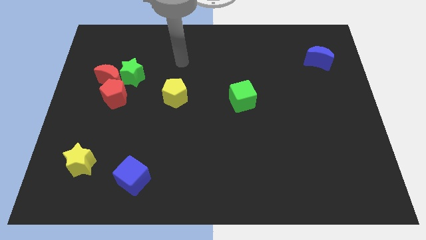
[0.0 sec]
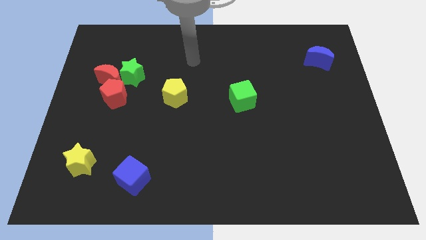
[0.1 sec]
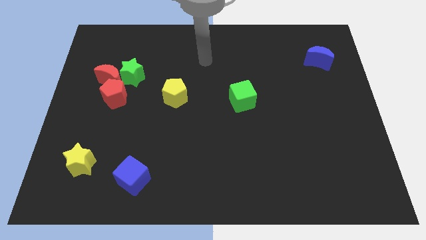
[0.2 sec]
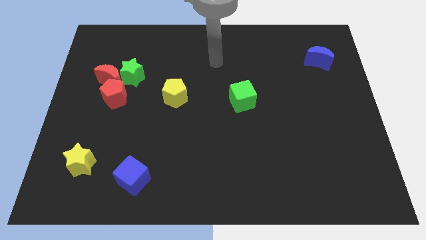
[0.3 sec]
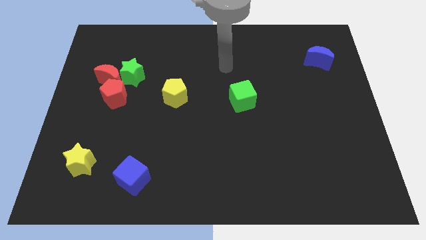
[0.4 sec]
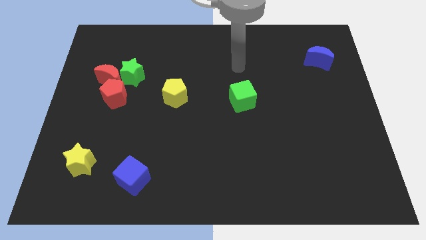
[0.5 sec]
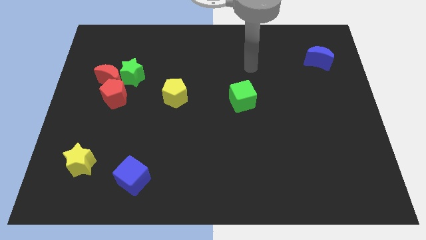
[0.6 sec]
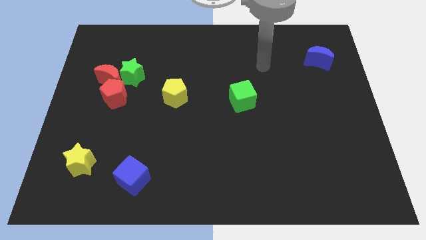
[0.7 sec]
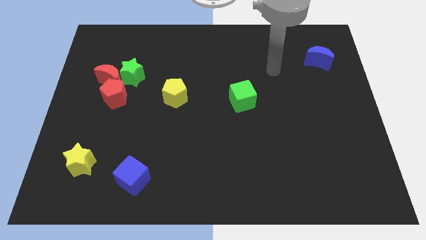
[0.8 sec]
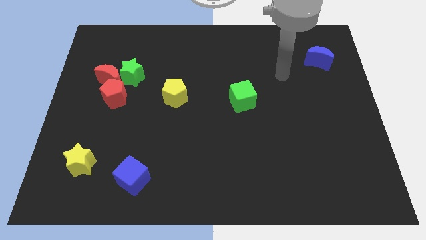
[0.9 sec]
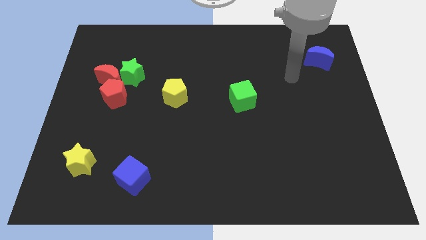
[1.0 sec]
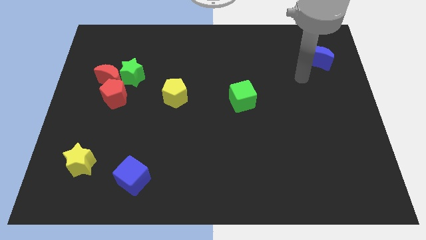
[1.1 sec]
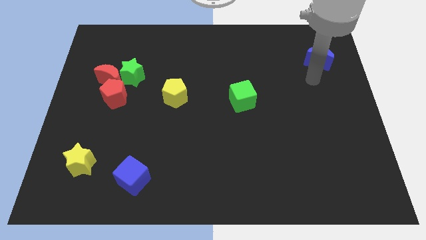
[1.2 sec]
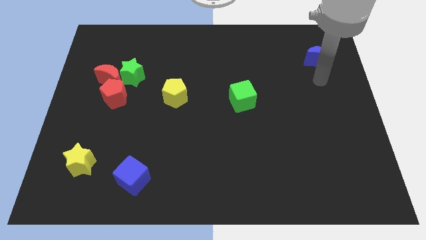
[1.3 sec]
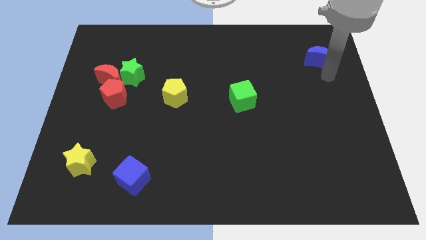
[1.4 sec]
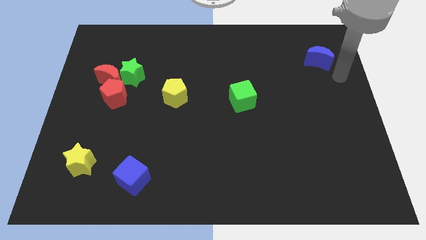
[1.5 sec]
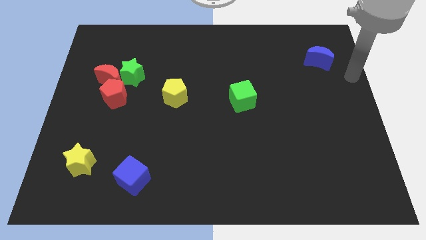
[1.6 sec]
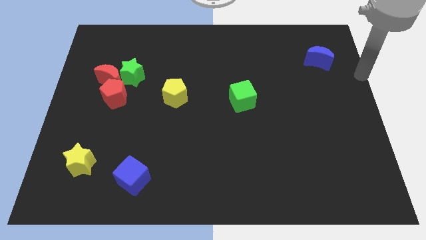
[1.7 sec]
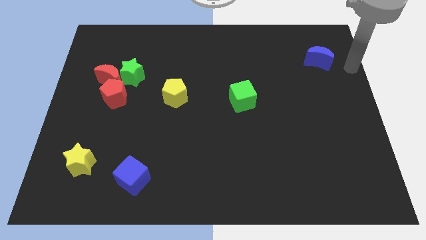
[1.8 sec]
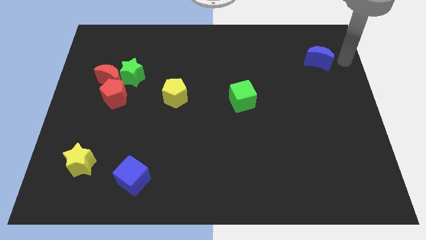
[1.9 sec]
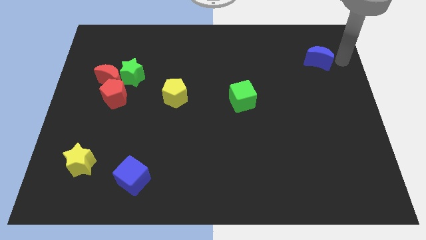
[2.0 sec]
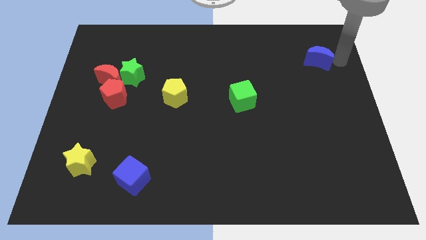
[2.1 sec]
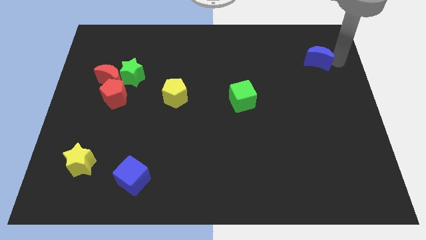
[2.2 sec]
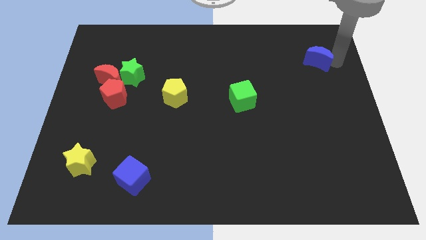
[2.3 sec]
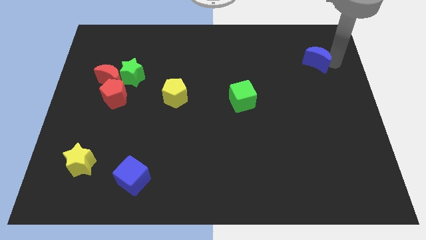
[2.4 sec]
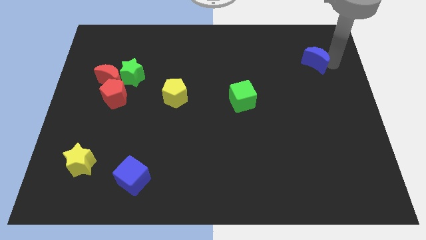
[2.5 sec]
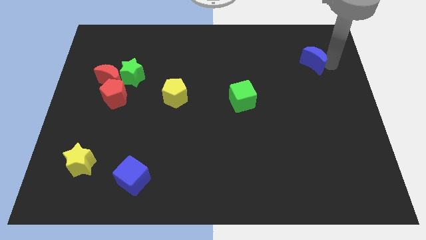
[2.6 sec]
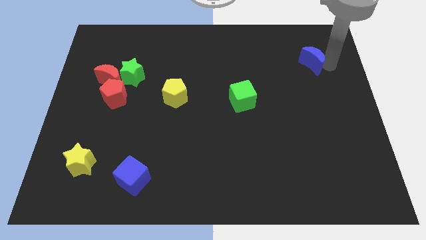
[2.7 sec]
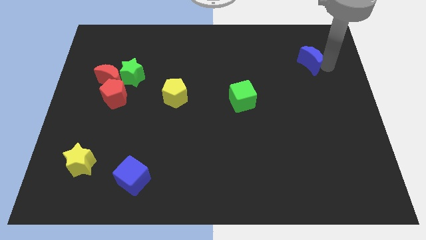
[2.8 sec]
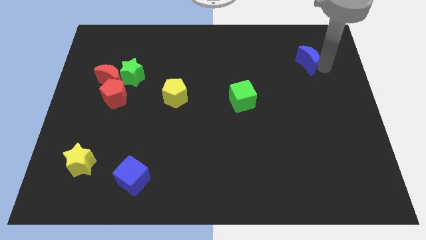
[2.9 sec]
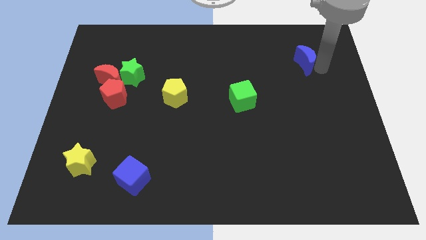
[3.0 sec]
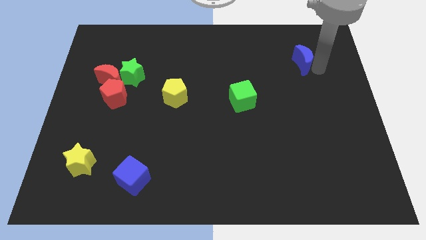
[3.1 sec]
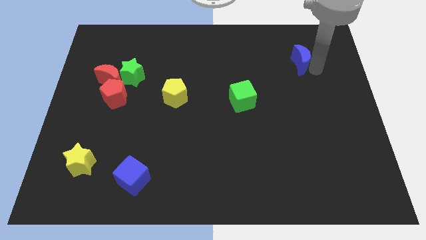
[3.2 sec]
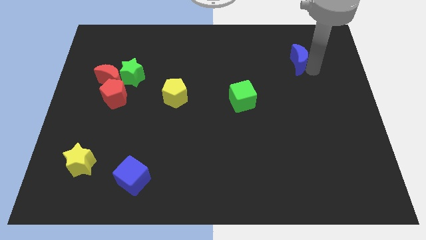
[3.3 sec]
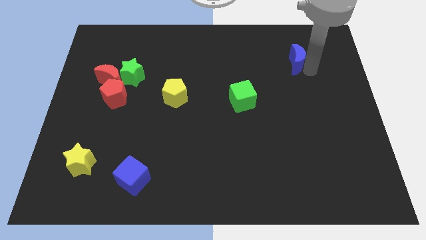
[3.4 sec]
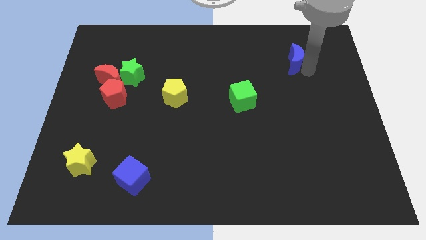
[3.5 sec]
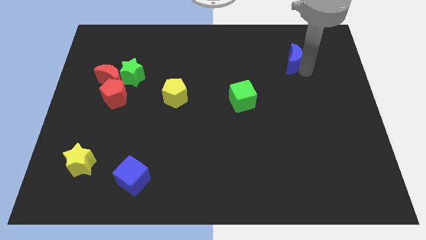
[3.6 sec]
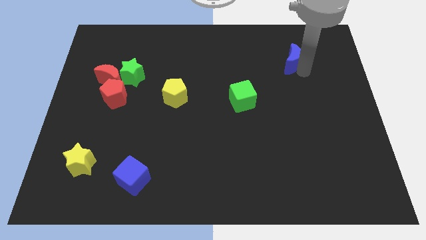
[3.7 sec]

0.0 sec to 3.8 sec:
slightly push the blue moon to the left

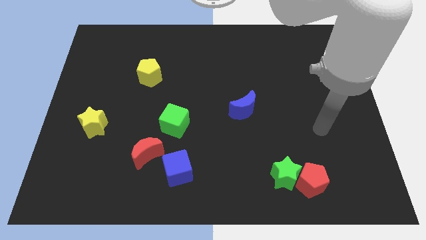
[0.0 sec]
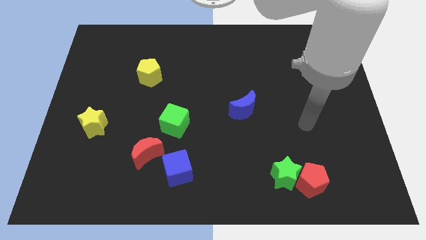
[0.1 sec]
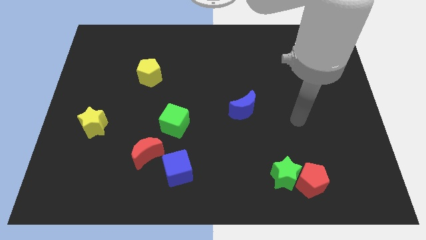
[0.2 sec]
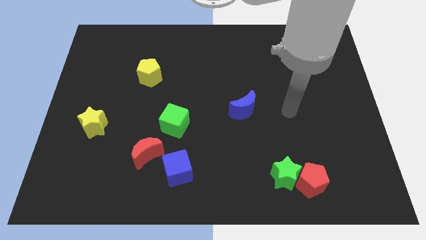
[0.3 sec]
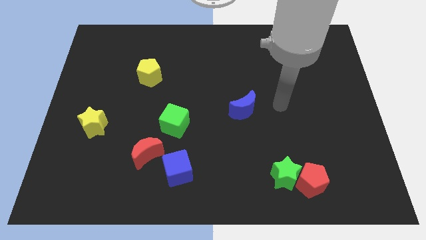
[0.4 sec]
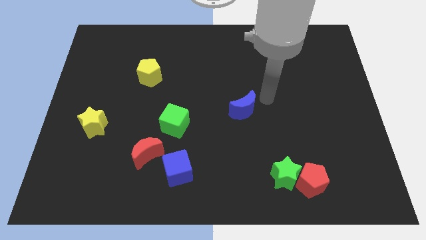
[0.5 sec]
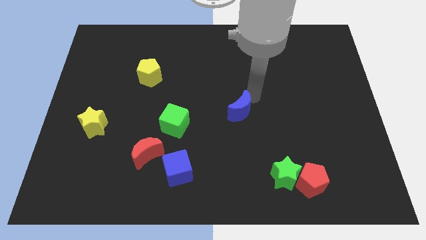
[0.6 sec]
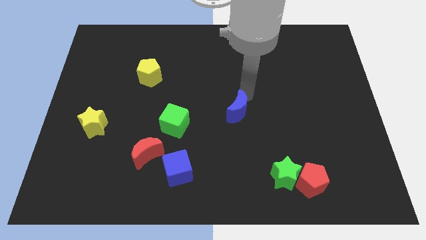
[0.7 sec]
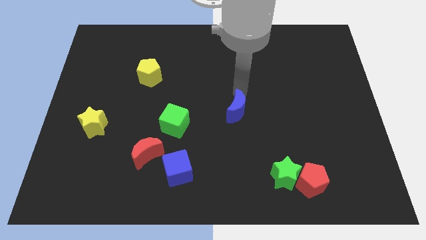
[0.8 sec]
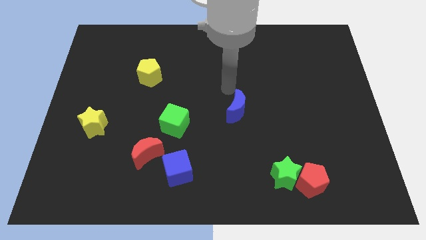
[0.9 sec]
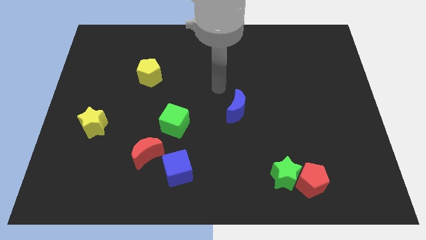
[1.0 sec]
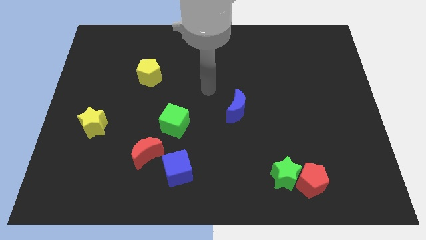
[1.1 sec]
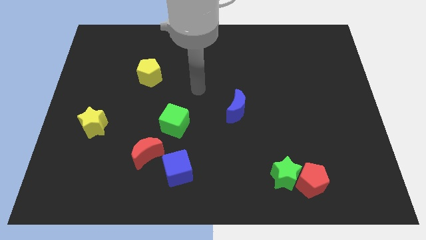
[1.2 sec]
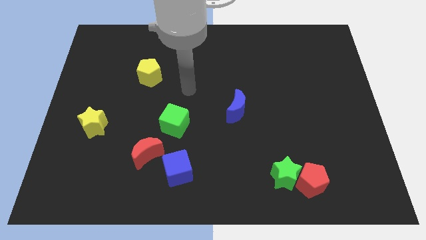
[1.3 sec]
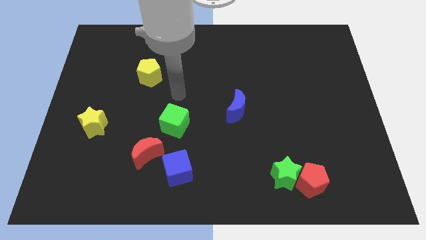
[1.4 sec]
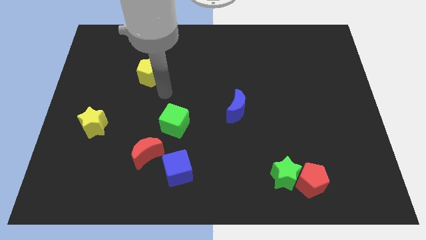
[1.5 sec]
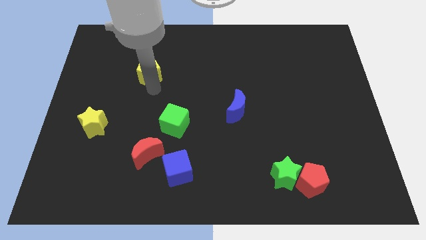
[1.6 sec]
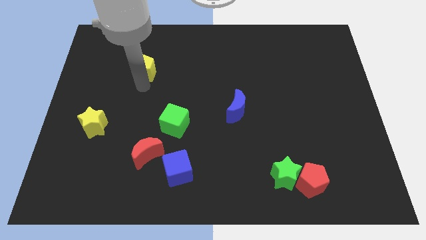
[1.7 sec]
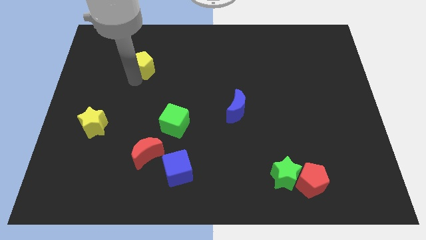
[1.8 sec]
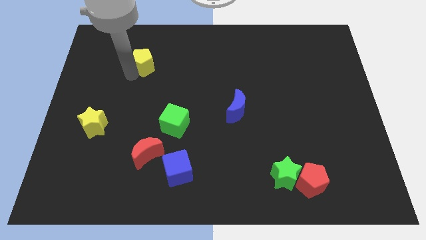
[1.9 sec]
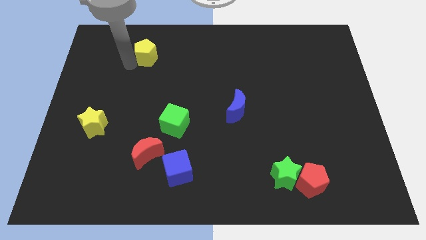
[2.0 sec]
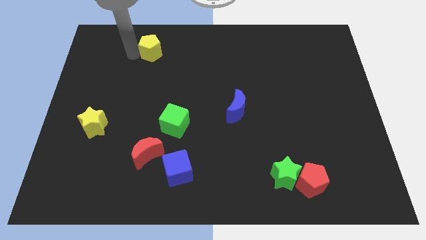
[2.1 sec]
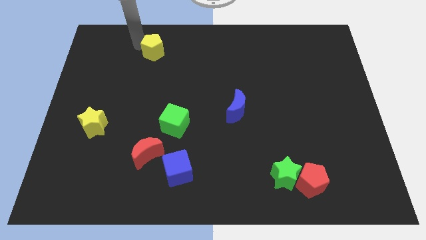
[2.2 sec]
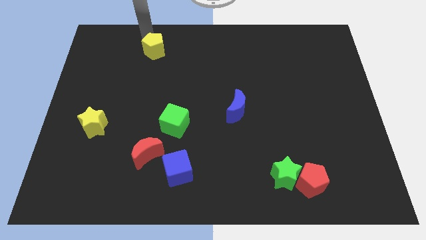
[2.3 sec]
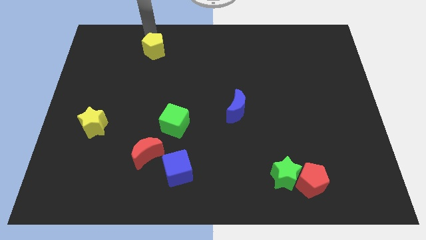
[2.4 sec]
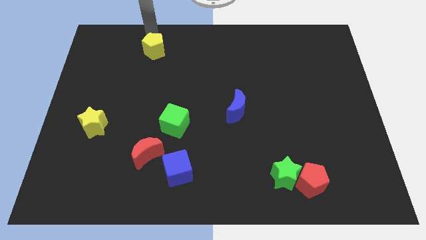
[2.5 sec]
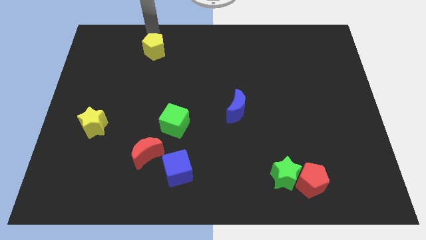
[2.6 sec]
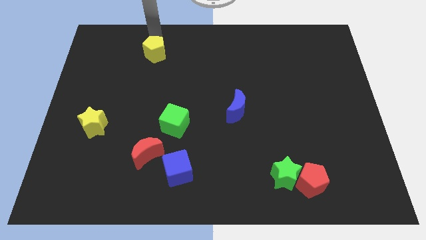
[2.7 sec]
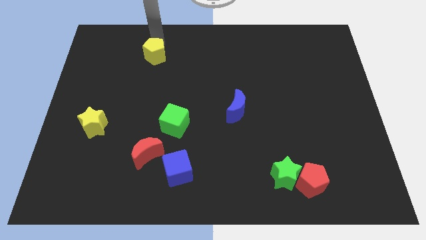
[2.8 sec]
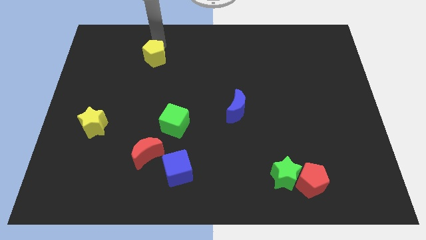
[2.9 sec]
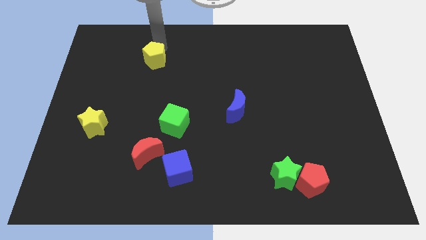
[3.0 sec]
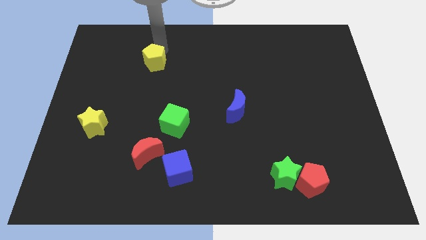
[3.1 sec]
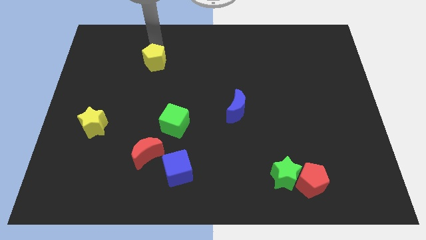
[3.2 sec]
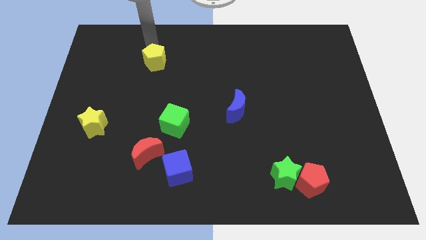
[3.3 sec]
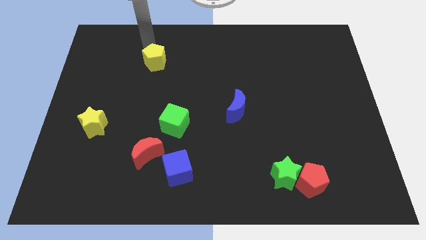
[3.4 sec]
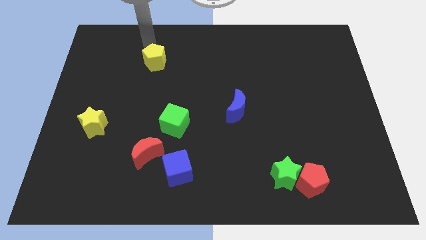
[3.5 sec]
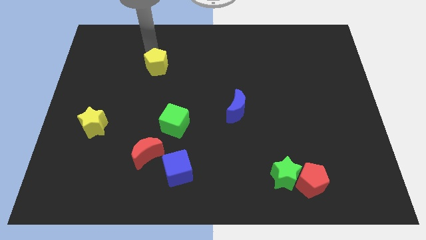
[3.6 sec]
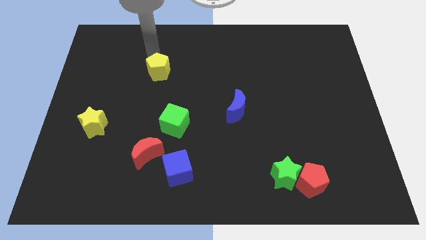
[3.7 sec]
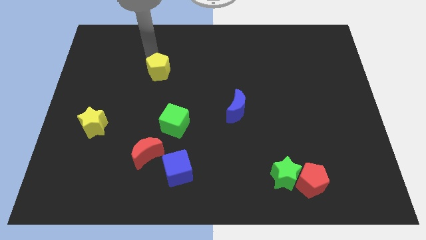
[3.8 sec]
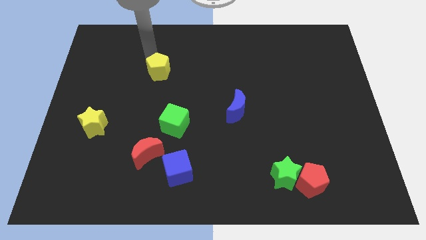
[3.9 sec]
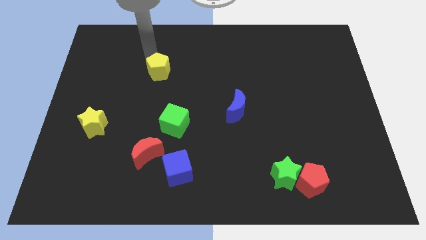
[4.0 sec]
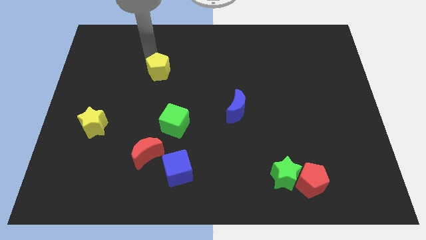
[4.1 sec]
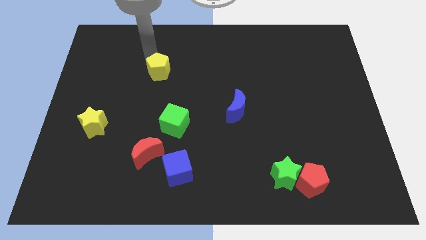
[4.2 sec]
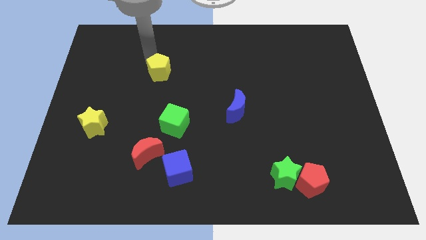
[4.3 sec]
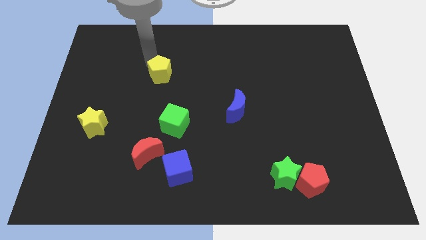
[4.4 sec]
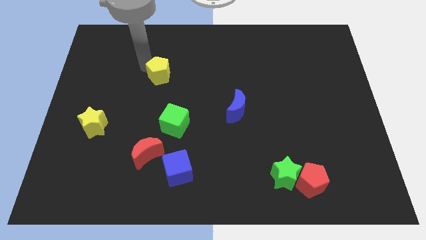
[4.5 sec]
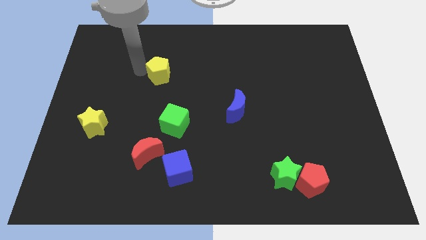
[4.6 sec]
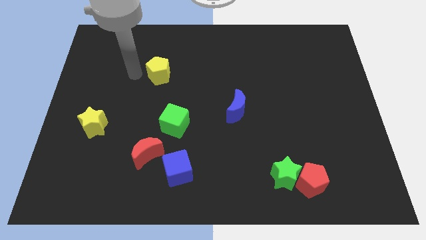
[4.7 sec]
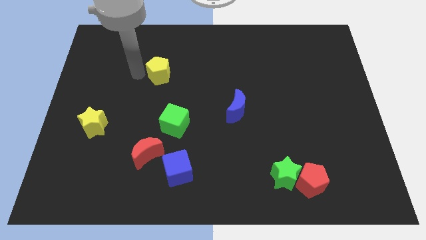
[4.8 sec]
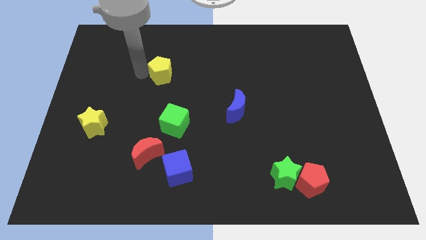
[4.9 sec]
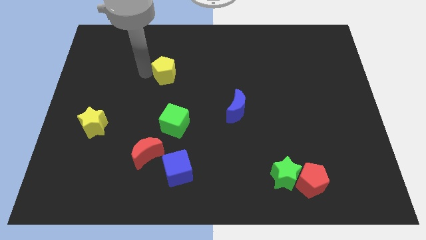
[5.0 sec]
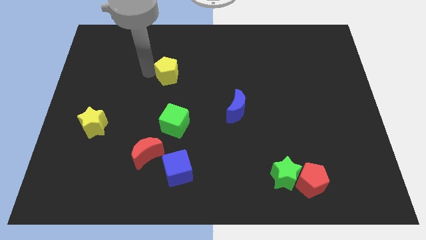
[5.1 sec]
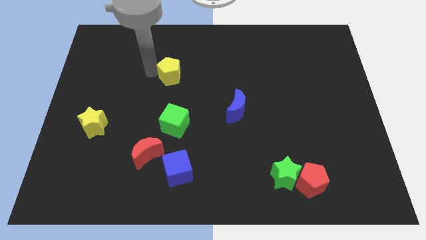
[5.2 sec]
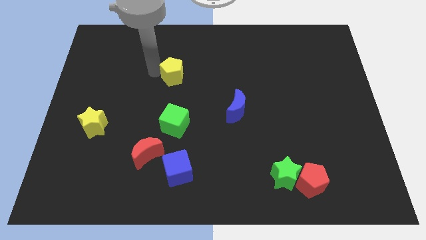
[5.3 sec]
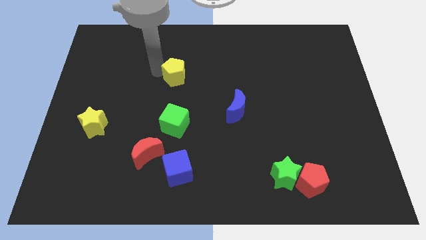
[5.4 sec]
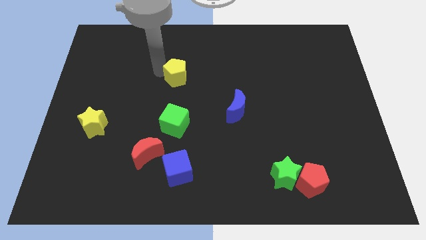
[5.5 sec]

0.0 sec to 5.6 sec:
push the yellow pentagon right slightly
